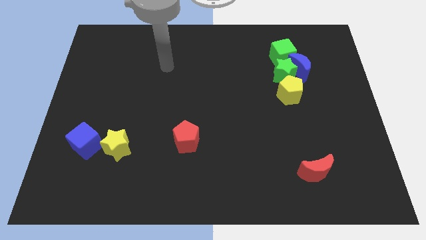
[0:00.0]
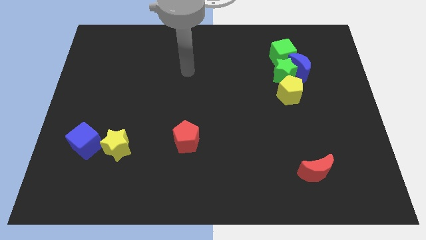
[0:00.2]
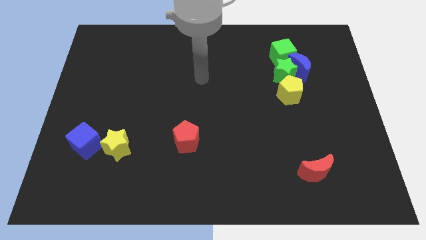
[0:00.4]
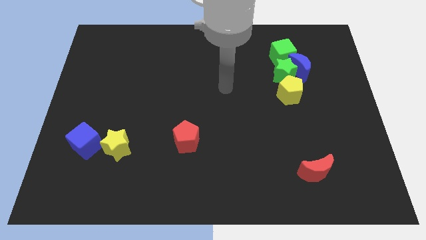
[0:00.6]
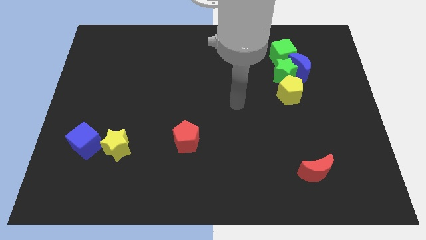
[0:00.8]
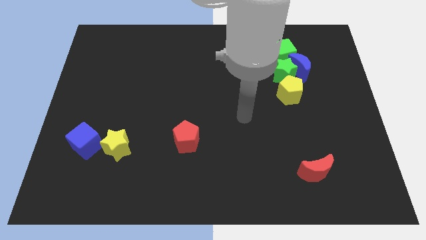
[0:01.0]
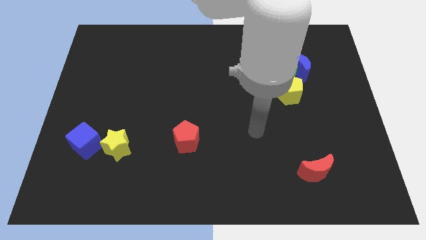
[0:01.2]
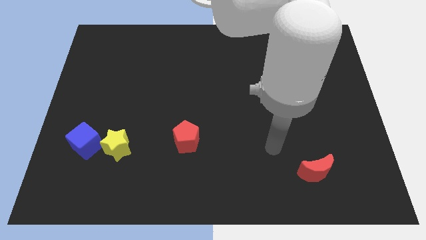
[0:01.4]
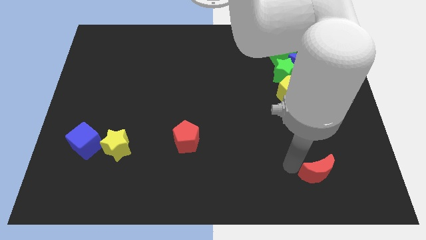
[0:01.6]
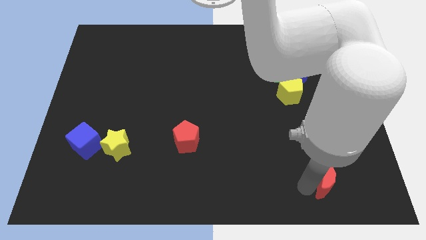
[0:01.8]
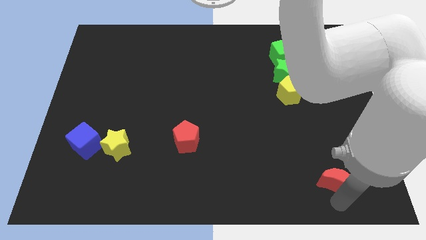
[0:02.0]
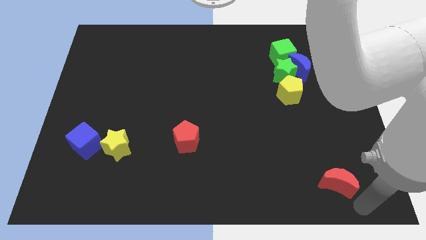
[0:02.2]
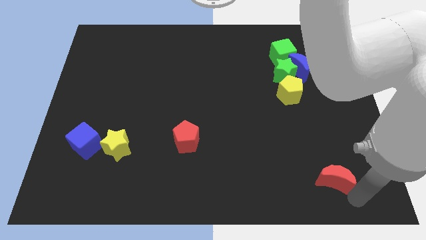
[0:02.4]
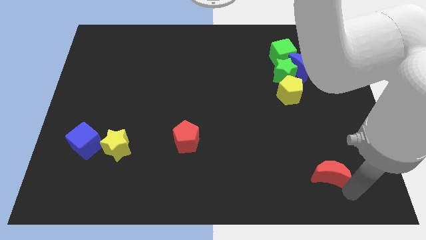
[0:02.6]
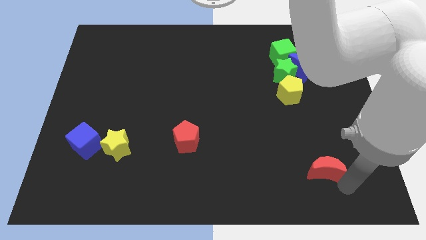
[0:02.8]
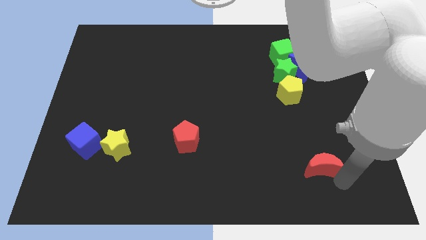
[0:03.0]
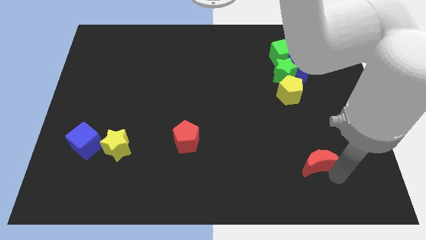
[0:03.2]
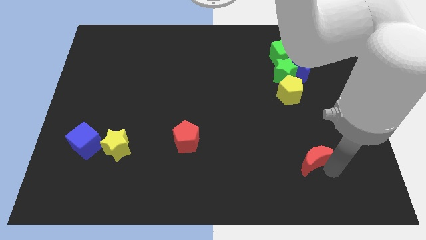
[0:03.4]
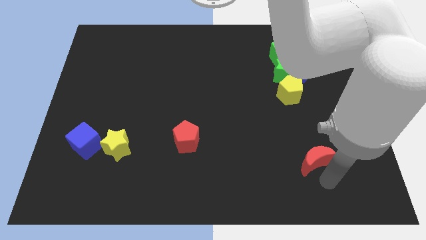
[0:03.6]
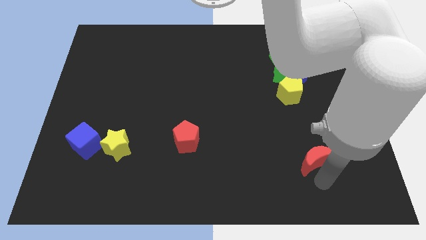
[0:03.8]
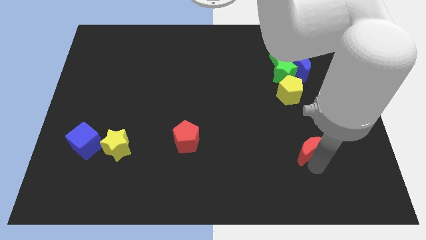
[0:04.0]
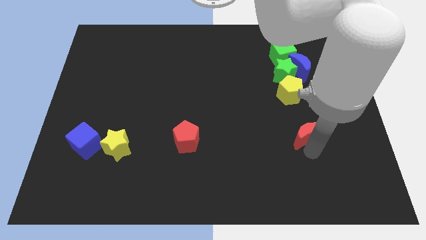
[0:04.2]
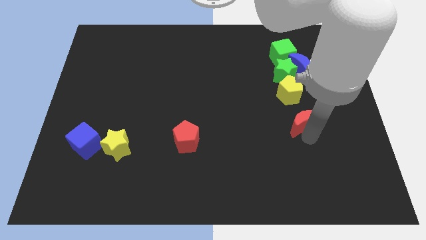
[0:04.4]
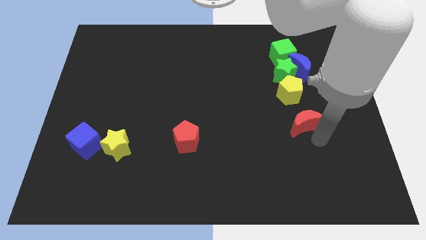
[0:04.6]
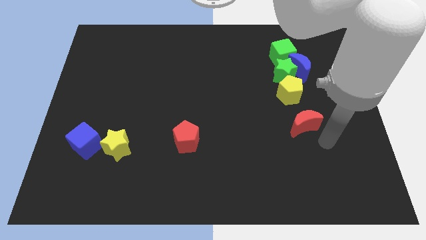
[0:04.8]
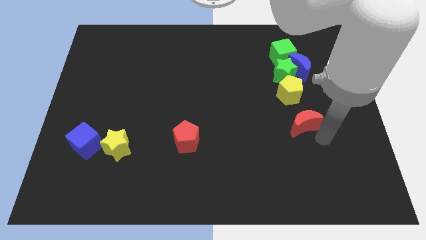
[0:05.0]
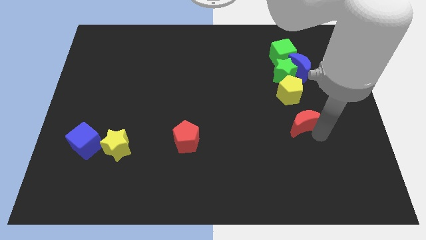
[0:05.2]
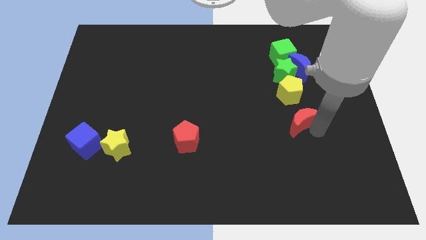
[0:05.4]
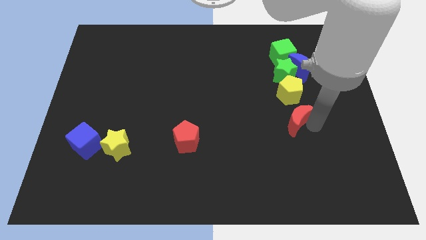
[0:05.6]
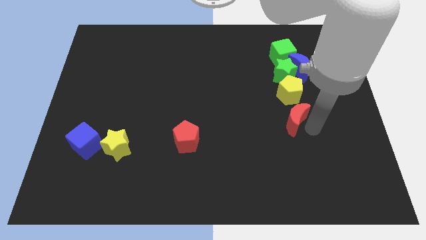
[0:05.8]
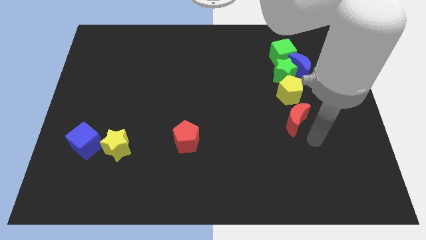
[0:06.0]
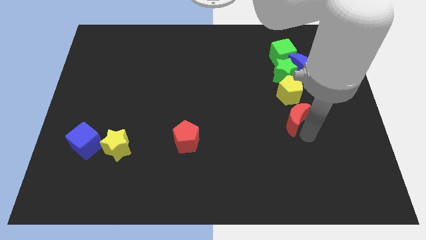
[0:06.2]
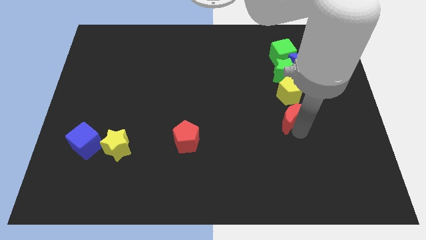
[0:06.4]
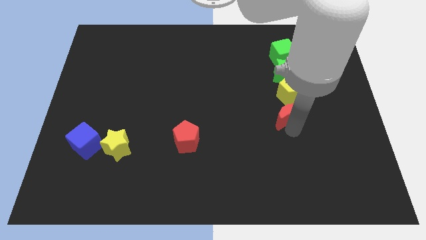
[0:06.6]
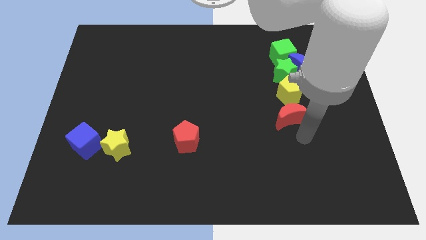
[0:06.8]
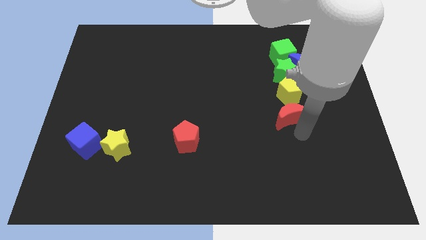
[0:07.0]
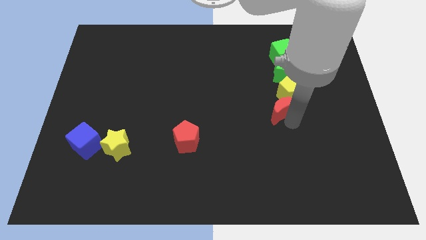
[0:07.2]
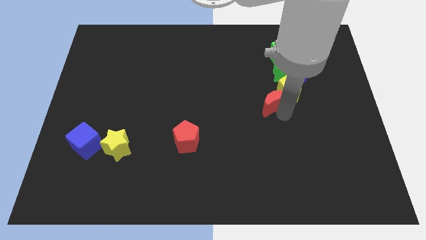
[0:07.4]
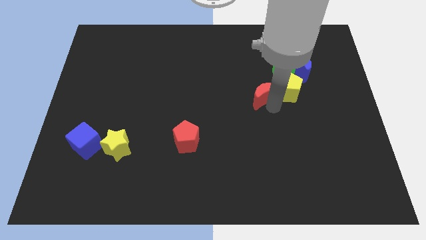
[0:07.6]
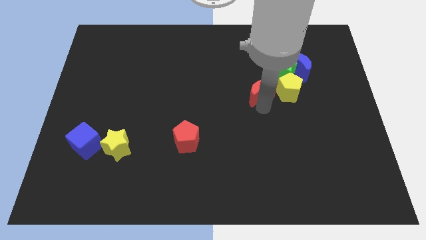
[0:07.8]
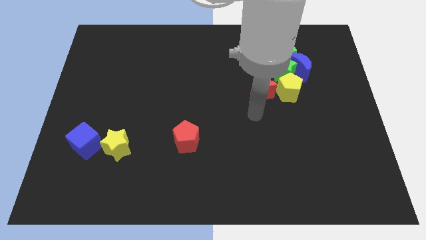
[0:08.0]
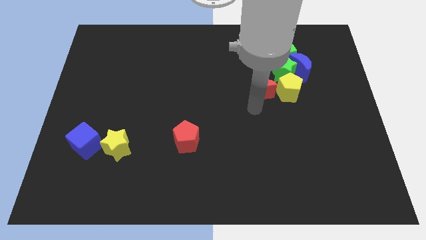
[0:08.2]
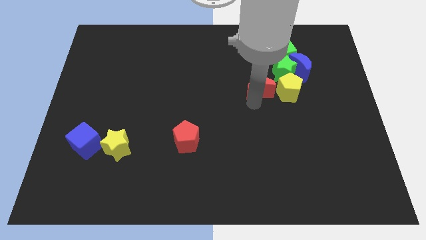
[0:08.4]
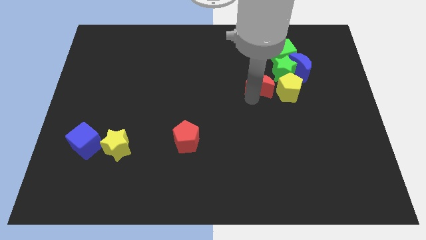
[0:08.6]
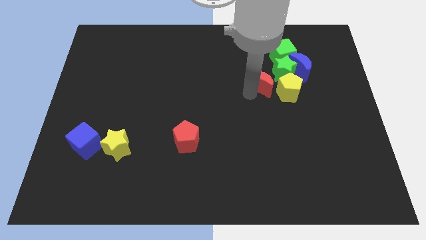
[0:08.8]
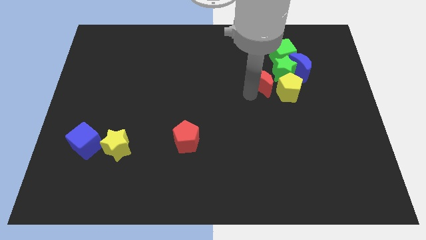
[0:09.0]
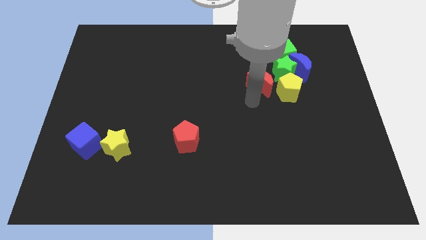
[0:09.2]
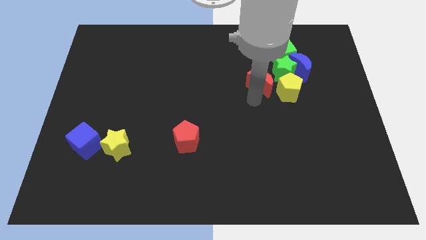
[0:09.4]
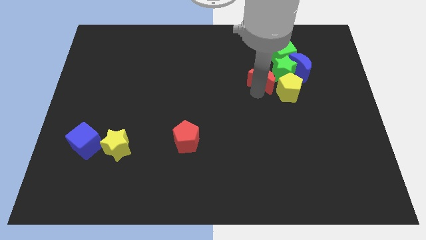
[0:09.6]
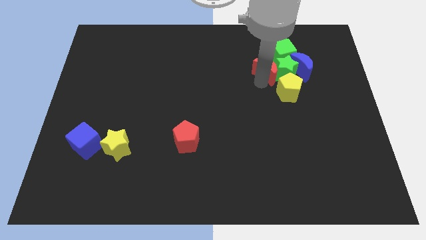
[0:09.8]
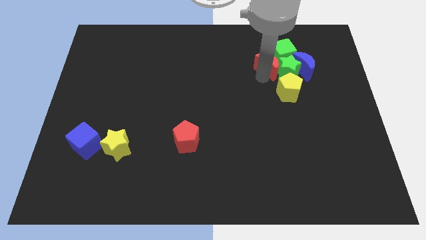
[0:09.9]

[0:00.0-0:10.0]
move the red moon to the green cube

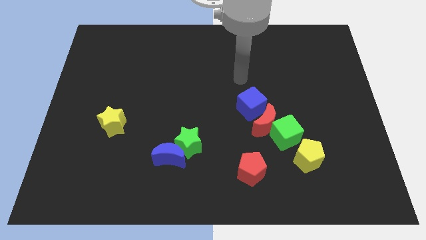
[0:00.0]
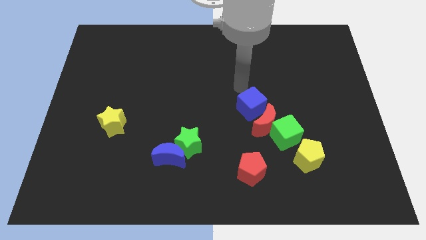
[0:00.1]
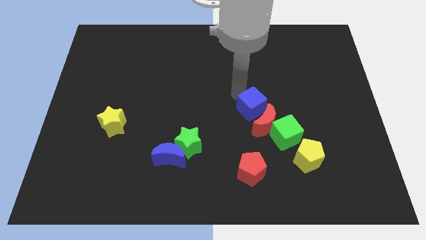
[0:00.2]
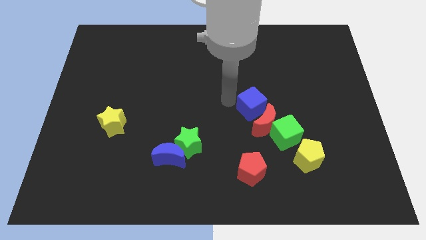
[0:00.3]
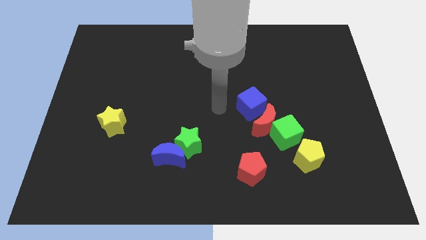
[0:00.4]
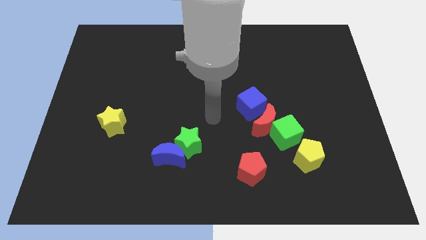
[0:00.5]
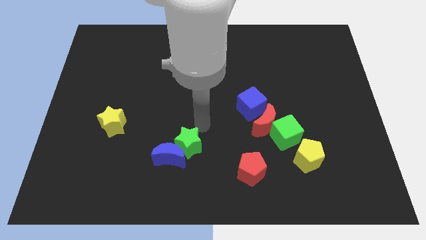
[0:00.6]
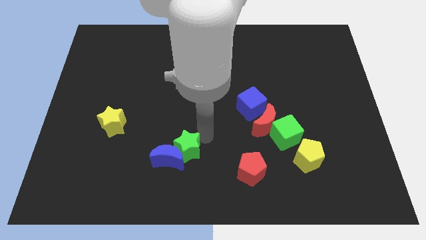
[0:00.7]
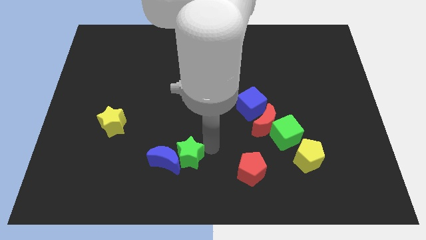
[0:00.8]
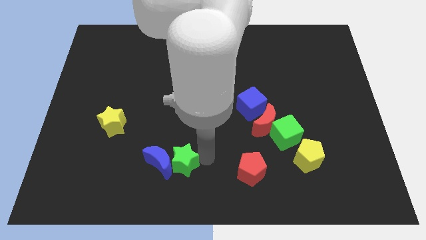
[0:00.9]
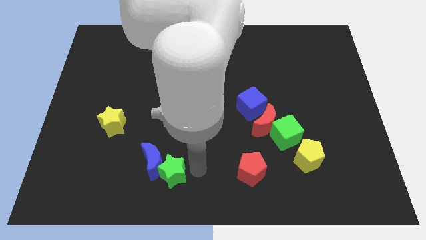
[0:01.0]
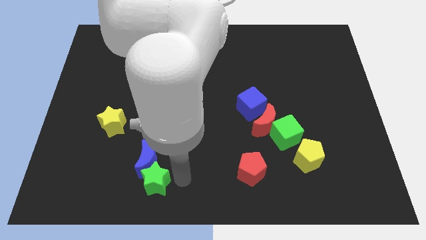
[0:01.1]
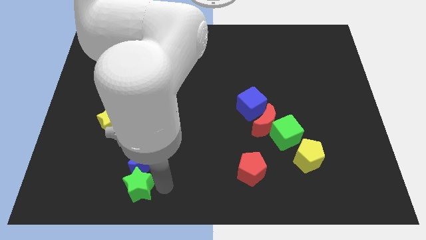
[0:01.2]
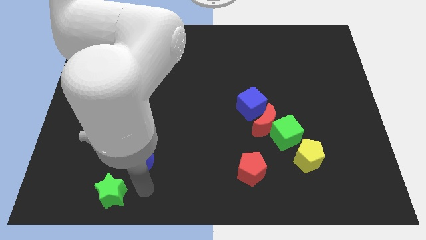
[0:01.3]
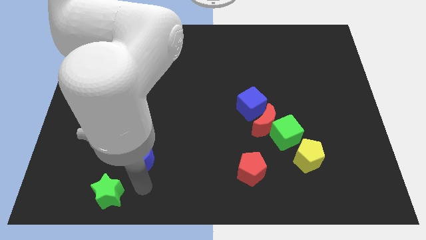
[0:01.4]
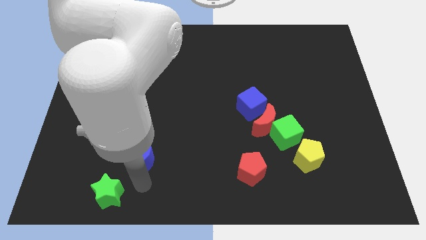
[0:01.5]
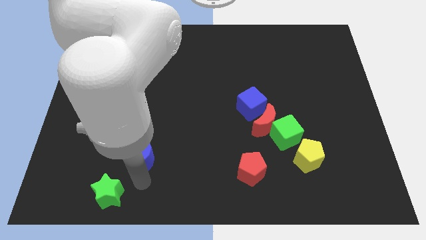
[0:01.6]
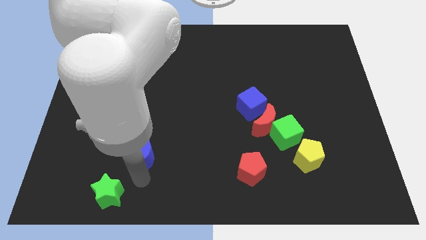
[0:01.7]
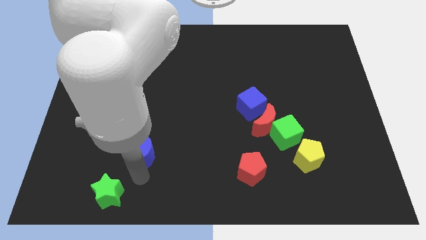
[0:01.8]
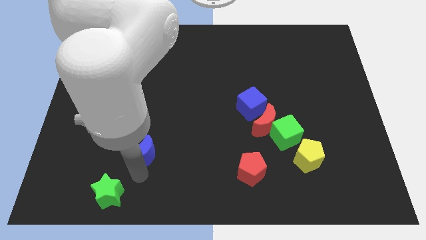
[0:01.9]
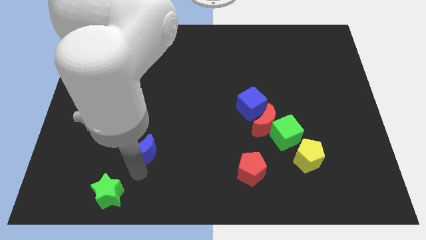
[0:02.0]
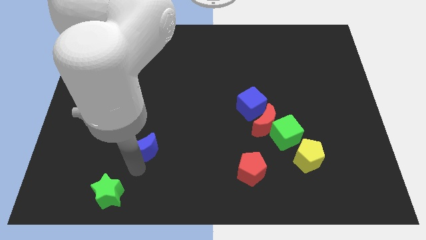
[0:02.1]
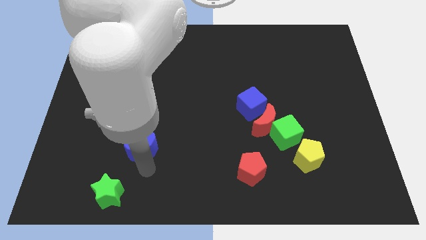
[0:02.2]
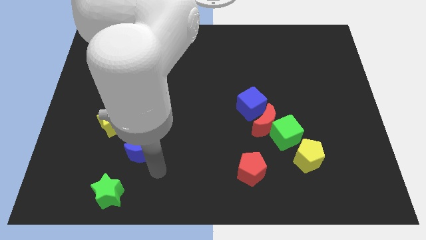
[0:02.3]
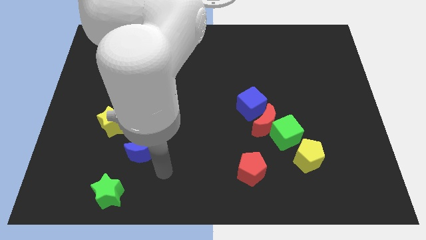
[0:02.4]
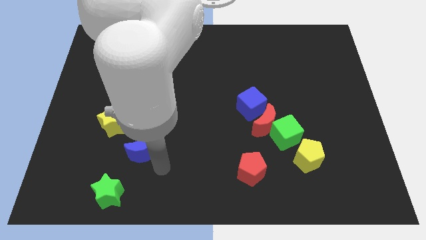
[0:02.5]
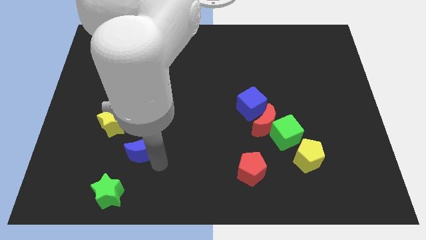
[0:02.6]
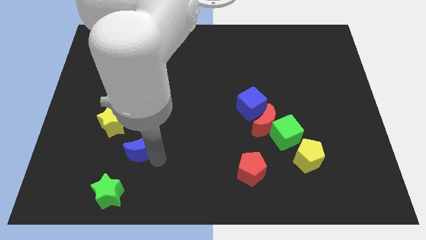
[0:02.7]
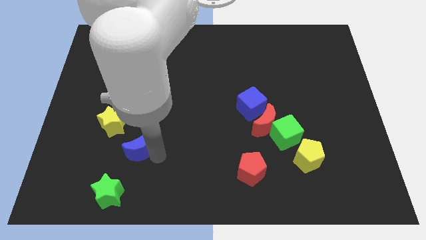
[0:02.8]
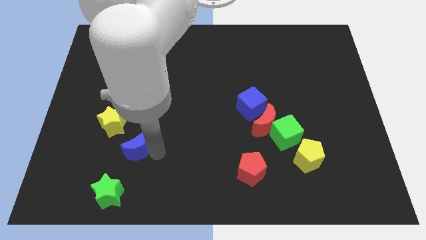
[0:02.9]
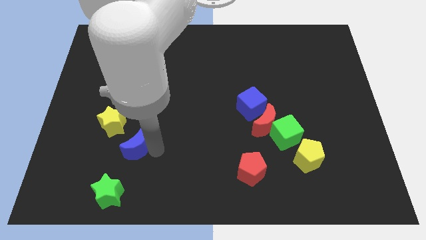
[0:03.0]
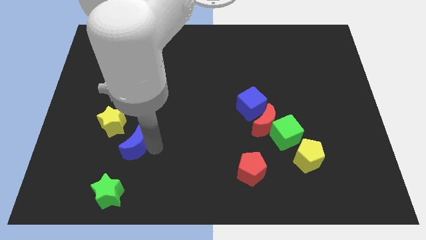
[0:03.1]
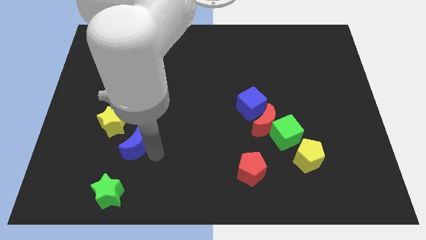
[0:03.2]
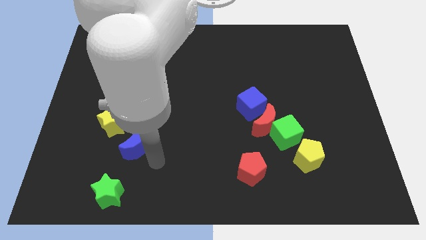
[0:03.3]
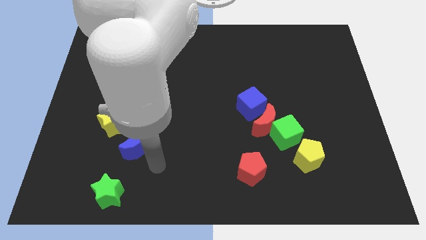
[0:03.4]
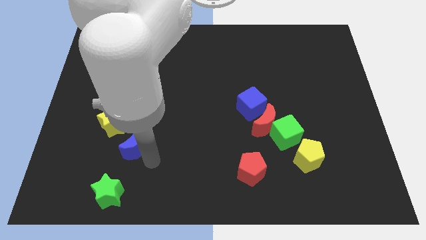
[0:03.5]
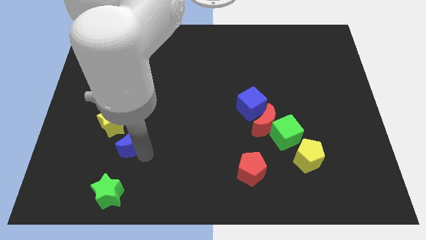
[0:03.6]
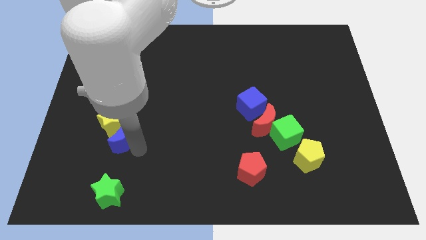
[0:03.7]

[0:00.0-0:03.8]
push the blue moon towards the yellow star
